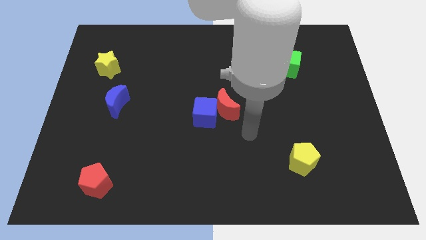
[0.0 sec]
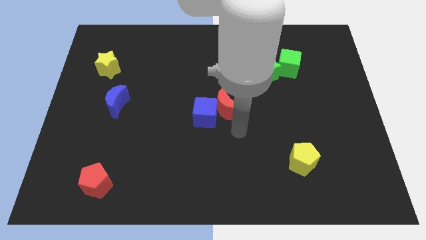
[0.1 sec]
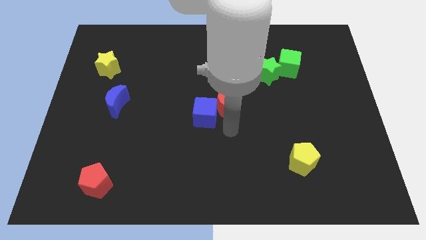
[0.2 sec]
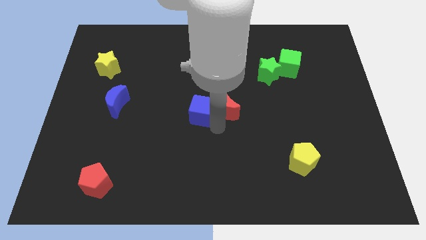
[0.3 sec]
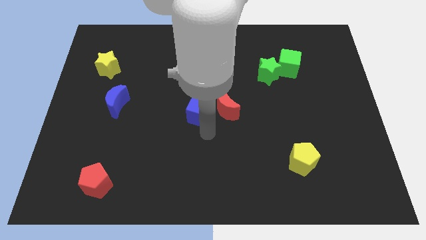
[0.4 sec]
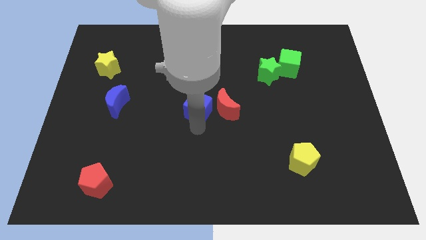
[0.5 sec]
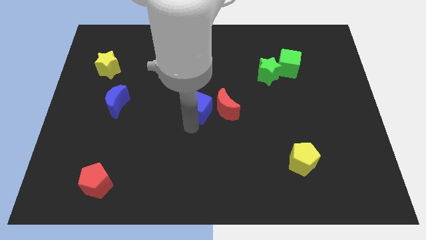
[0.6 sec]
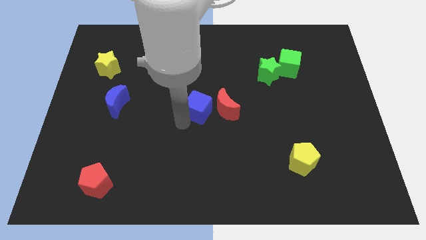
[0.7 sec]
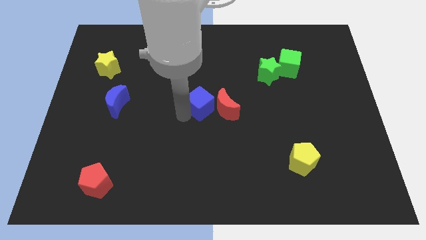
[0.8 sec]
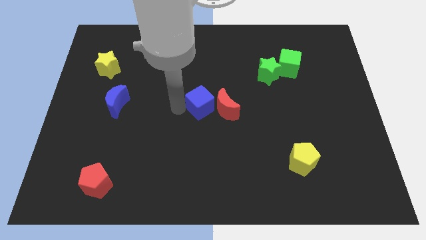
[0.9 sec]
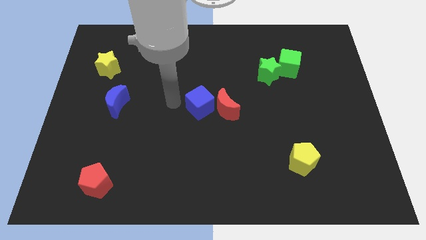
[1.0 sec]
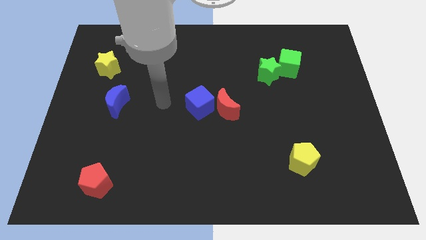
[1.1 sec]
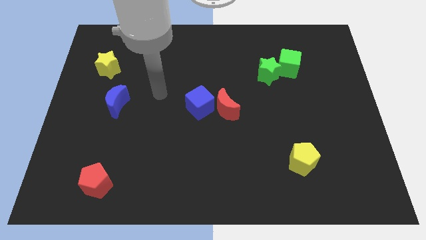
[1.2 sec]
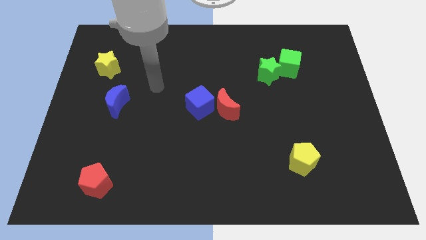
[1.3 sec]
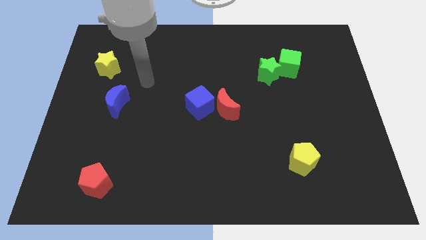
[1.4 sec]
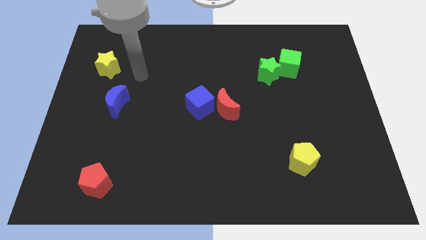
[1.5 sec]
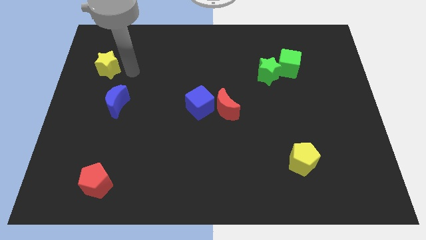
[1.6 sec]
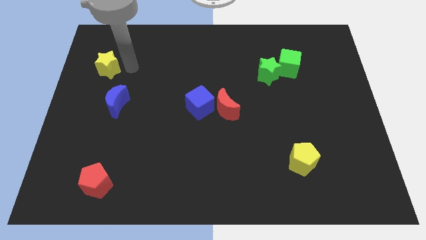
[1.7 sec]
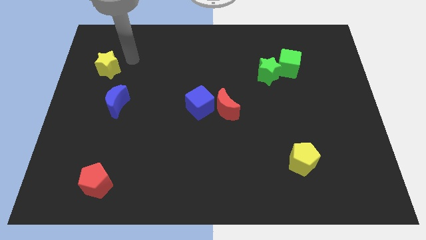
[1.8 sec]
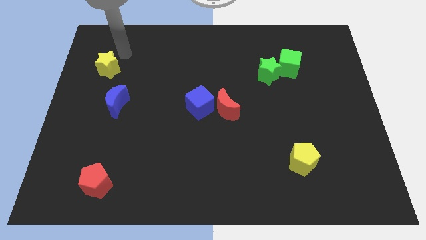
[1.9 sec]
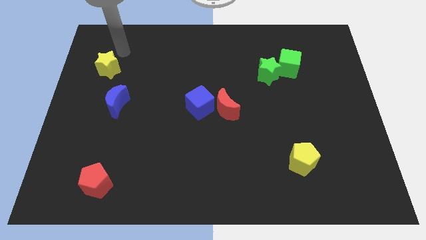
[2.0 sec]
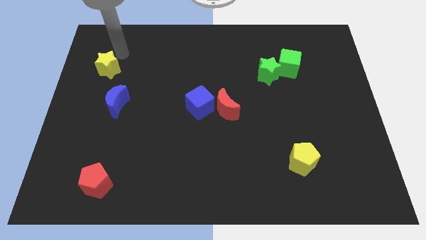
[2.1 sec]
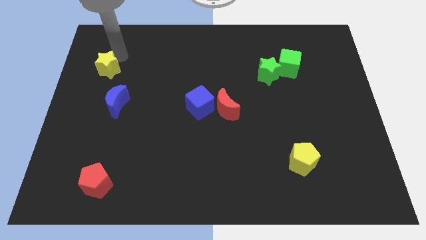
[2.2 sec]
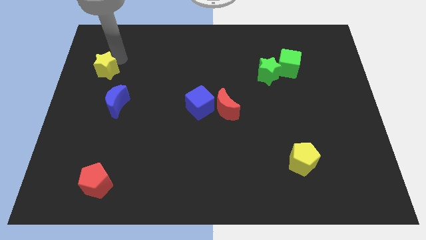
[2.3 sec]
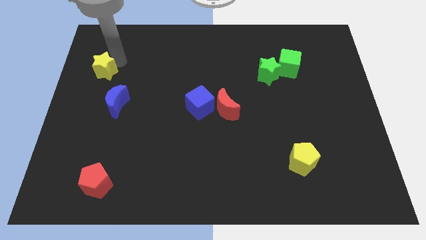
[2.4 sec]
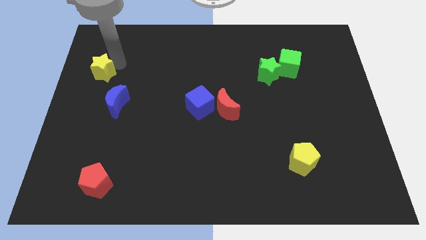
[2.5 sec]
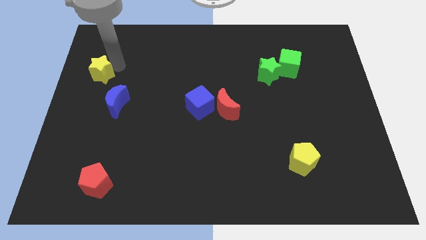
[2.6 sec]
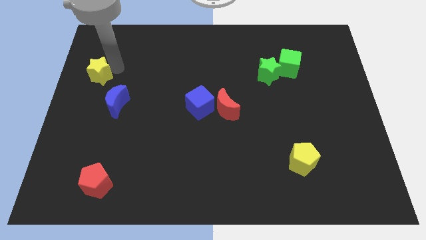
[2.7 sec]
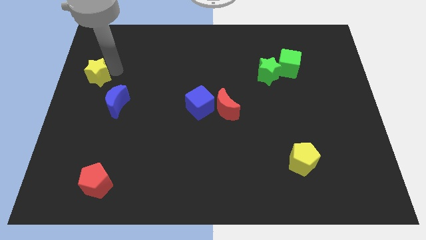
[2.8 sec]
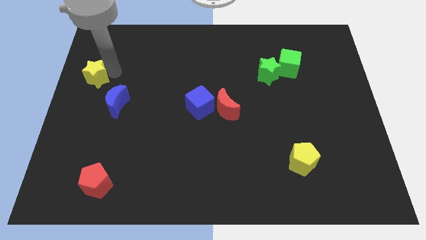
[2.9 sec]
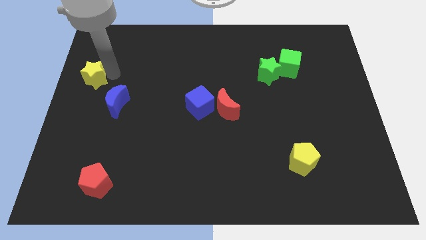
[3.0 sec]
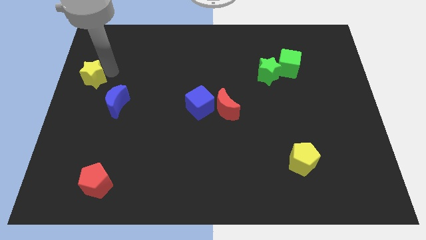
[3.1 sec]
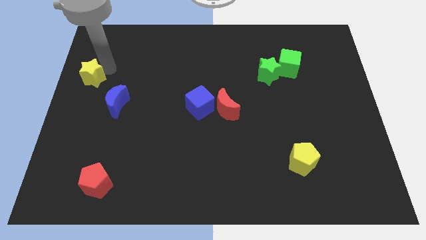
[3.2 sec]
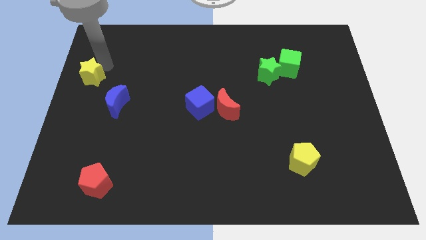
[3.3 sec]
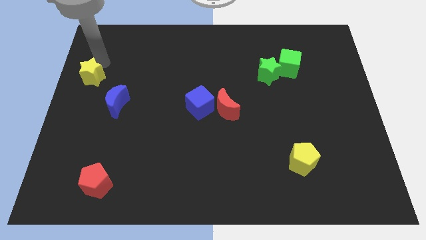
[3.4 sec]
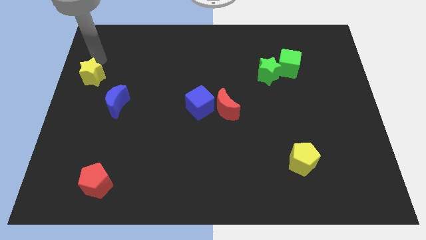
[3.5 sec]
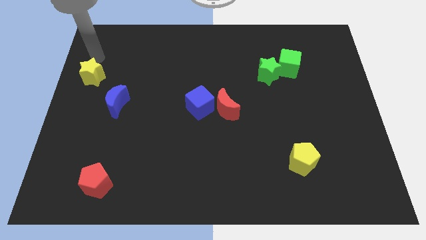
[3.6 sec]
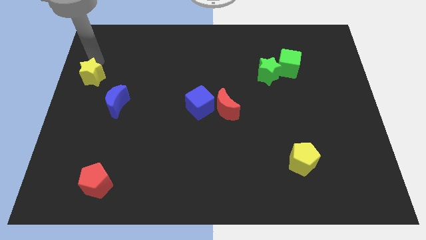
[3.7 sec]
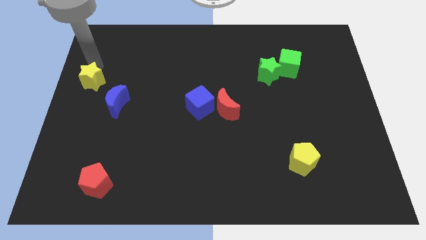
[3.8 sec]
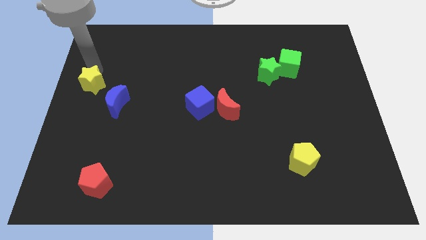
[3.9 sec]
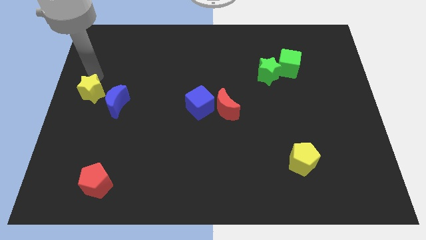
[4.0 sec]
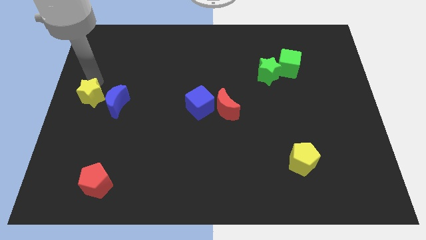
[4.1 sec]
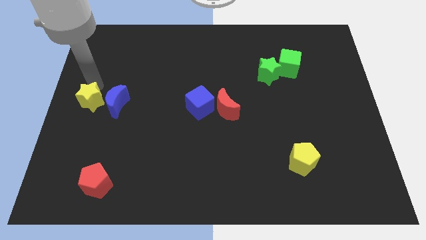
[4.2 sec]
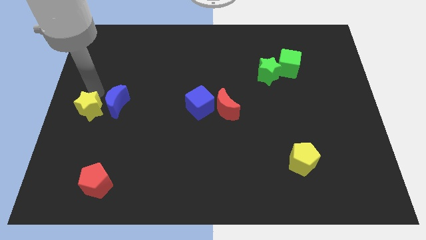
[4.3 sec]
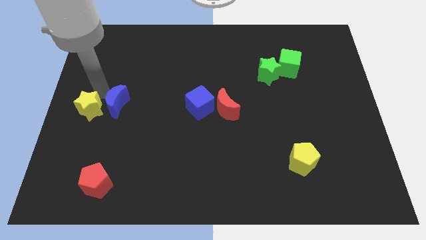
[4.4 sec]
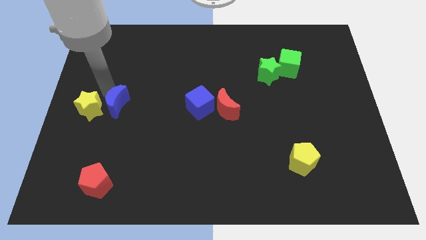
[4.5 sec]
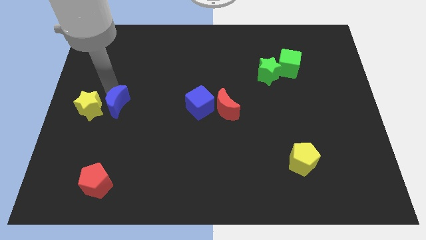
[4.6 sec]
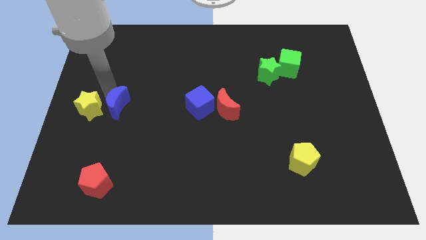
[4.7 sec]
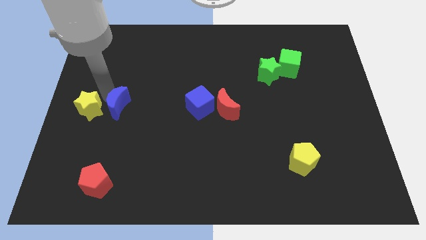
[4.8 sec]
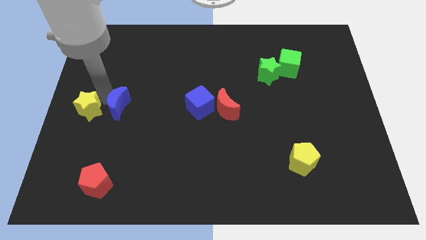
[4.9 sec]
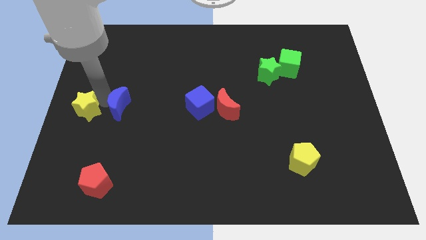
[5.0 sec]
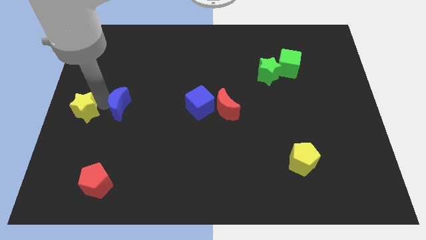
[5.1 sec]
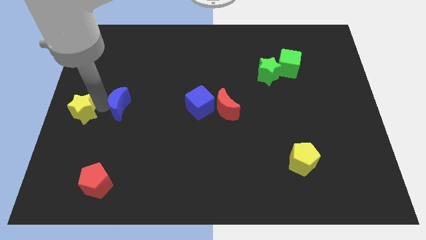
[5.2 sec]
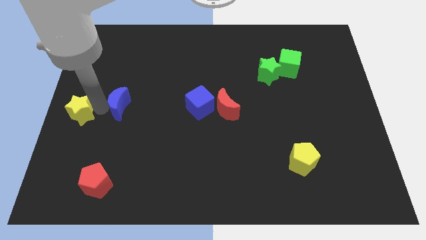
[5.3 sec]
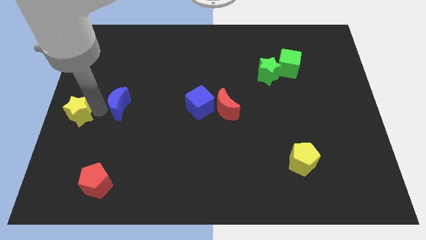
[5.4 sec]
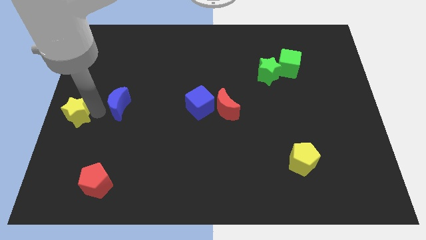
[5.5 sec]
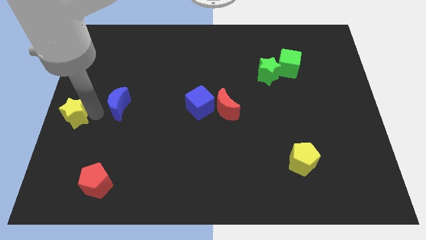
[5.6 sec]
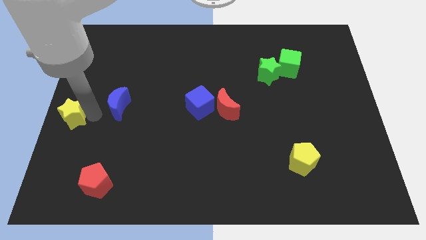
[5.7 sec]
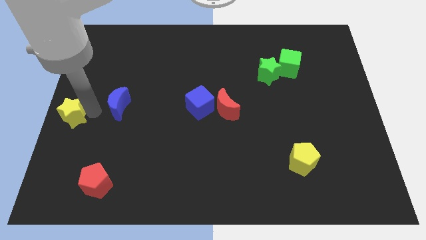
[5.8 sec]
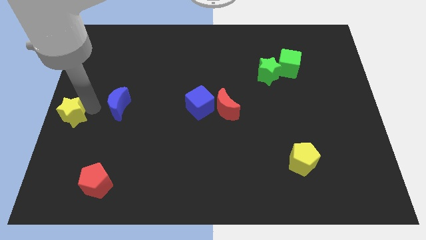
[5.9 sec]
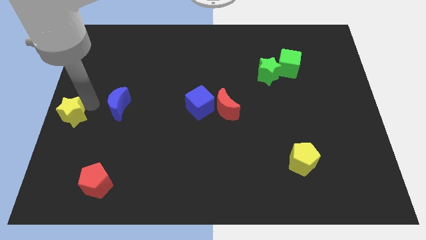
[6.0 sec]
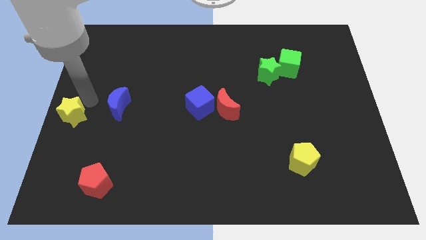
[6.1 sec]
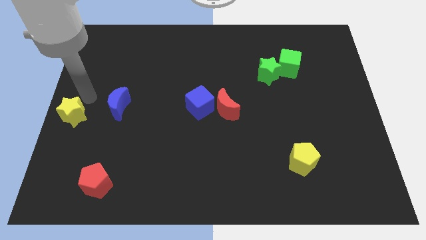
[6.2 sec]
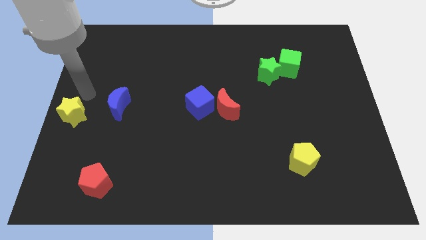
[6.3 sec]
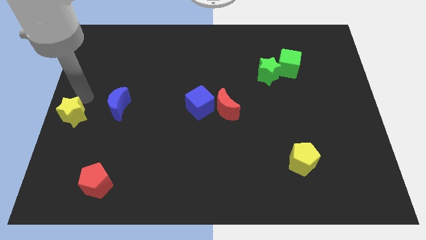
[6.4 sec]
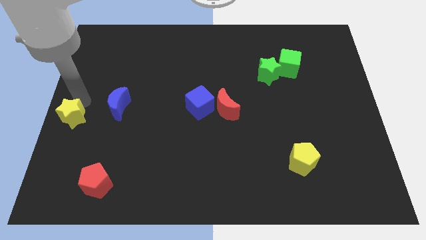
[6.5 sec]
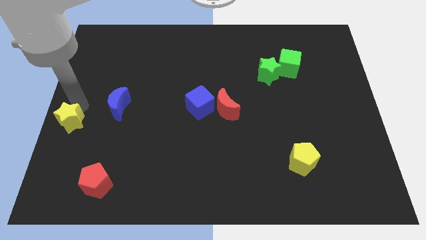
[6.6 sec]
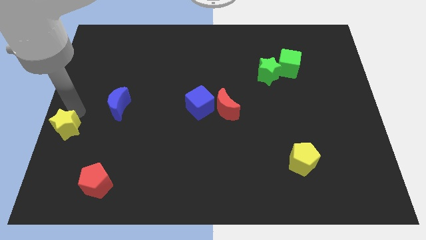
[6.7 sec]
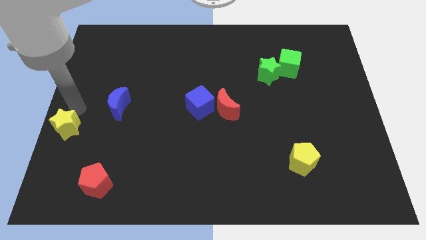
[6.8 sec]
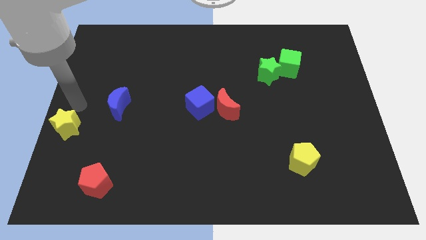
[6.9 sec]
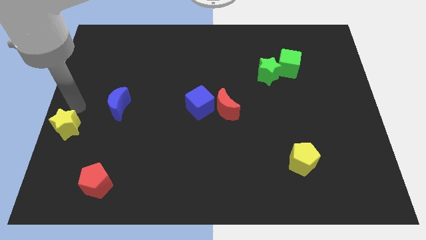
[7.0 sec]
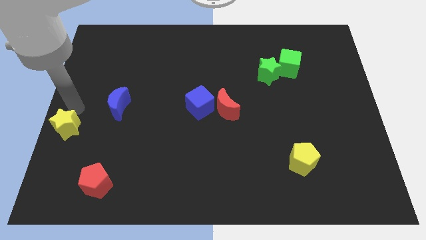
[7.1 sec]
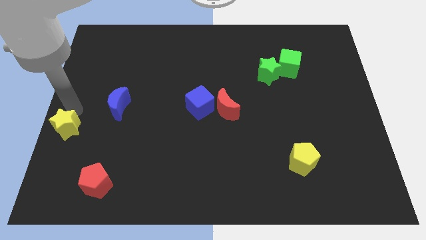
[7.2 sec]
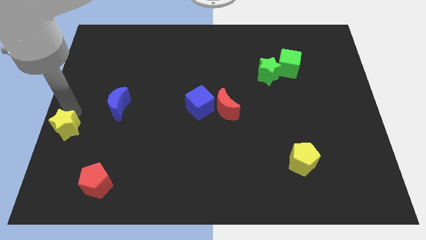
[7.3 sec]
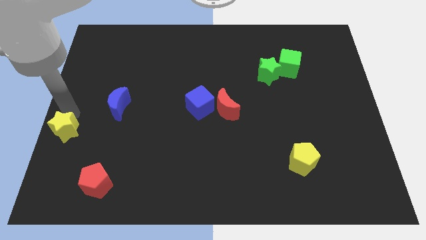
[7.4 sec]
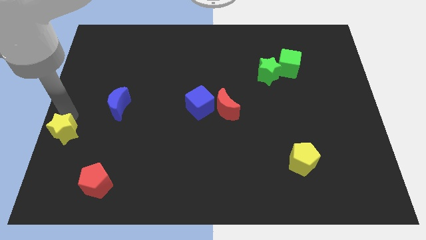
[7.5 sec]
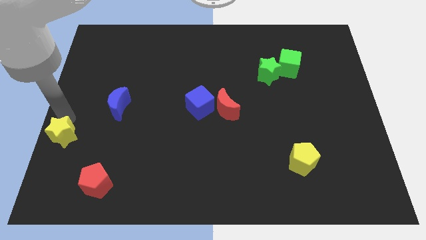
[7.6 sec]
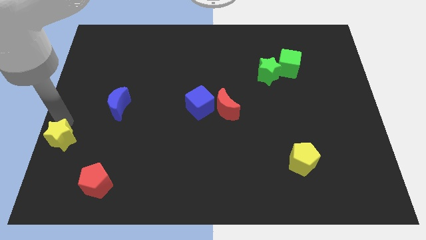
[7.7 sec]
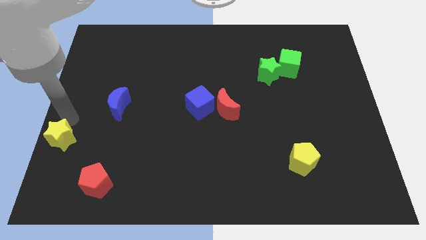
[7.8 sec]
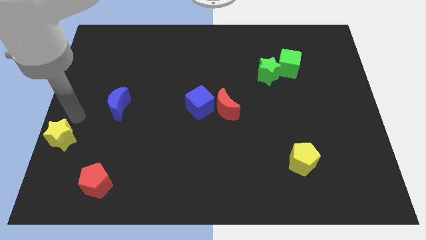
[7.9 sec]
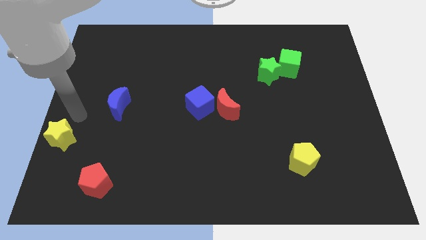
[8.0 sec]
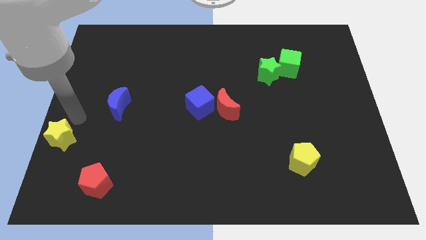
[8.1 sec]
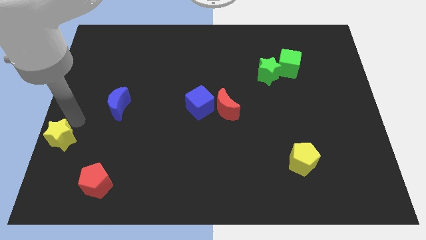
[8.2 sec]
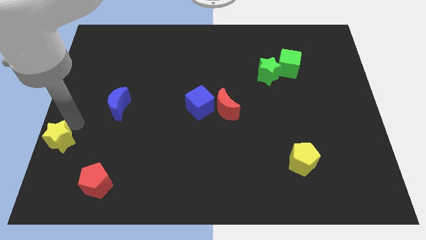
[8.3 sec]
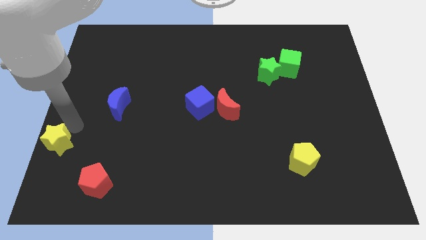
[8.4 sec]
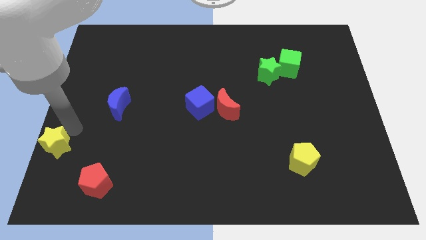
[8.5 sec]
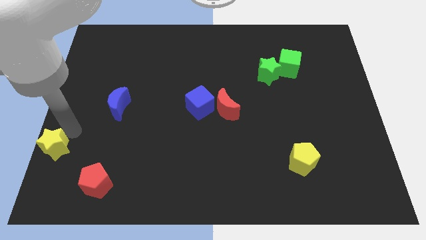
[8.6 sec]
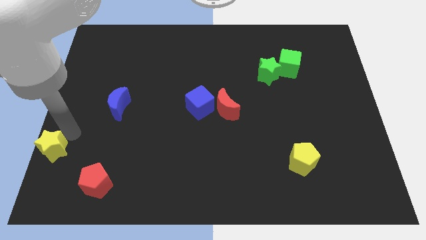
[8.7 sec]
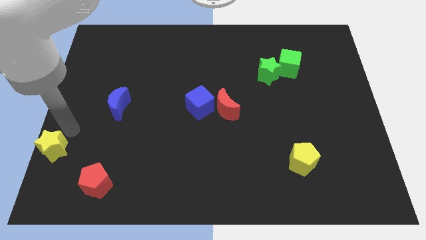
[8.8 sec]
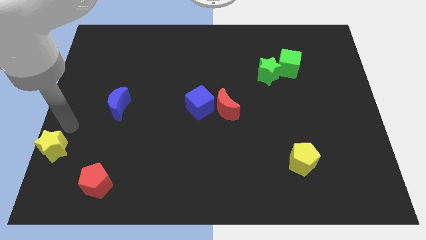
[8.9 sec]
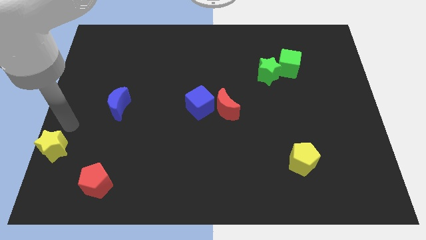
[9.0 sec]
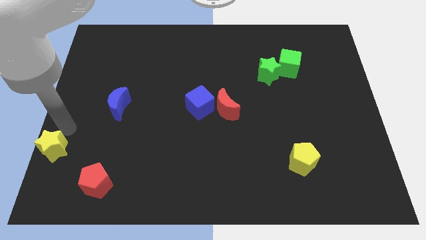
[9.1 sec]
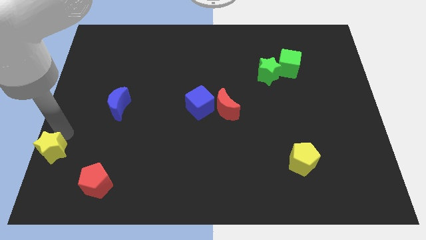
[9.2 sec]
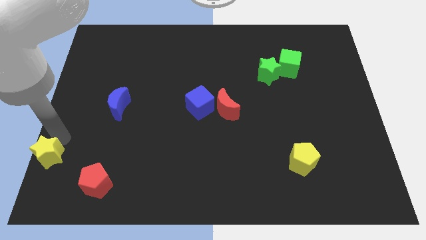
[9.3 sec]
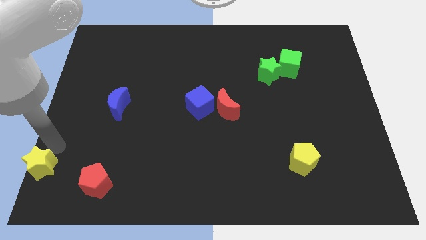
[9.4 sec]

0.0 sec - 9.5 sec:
move the yellow star to the lower left corner
